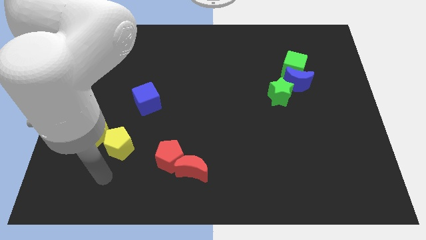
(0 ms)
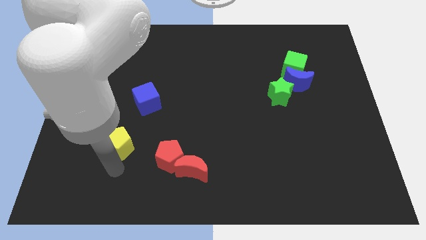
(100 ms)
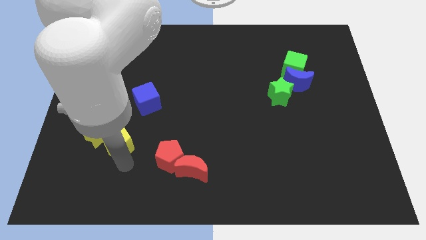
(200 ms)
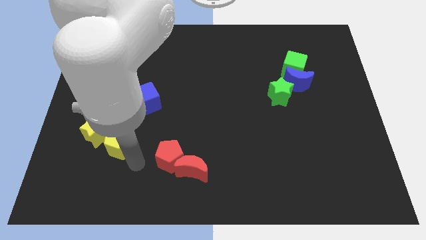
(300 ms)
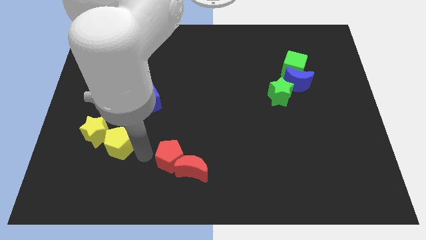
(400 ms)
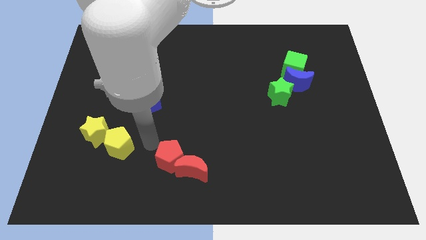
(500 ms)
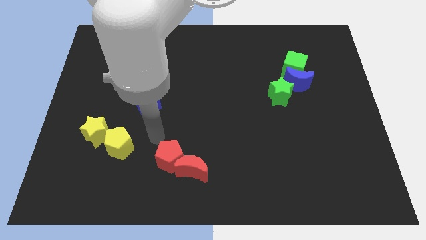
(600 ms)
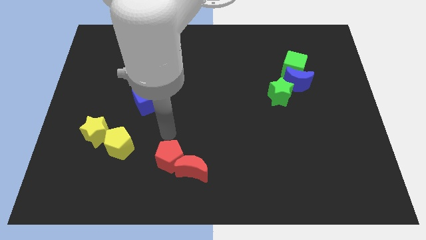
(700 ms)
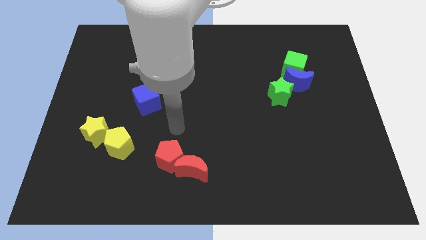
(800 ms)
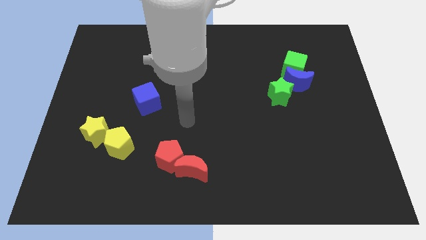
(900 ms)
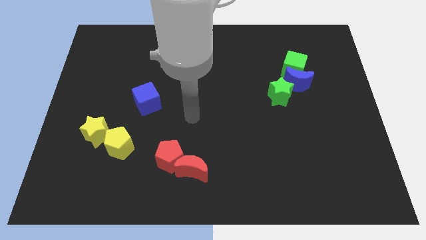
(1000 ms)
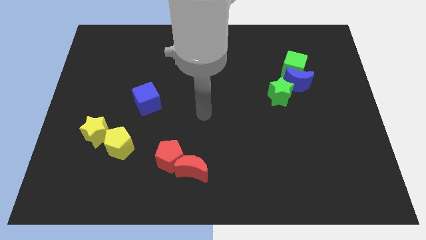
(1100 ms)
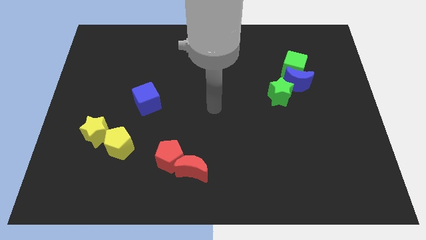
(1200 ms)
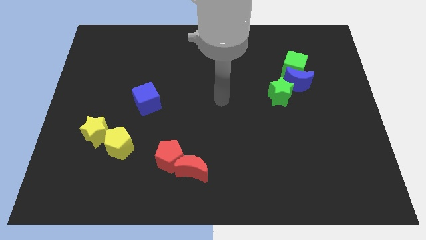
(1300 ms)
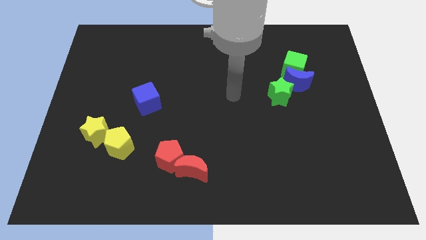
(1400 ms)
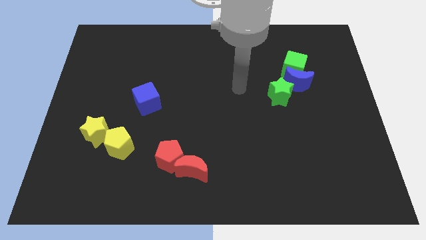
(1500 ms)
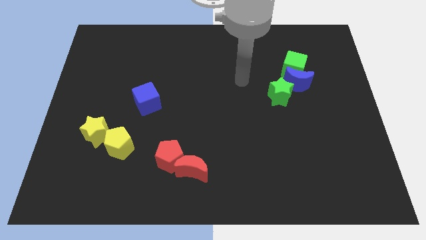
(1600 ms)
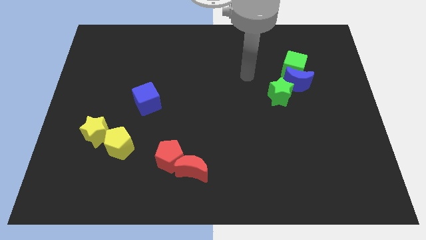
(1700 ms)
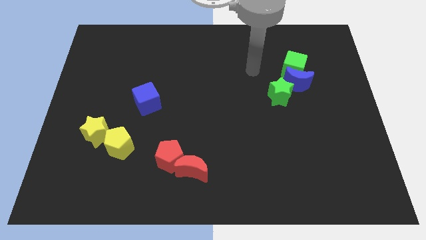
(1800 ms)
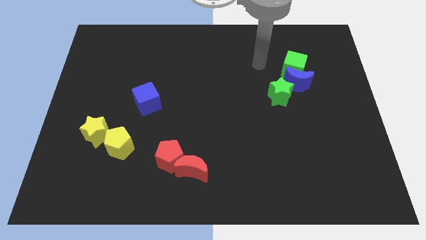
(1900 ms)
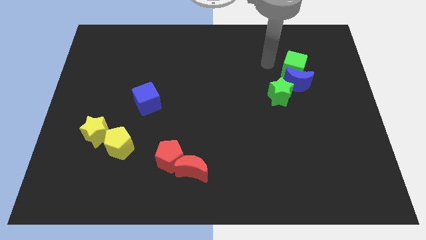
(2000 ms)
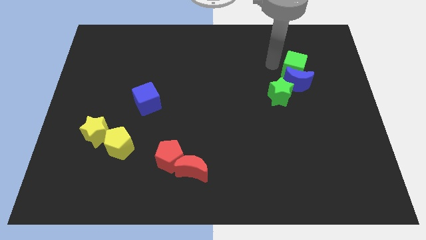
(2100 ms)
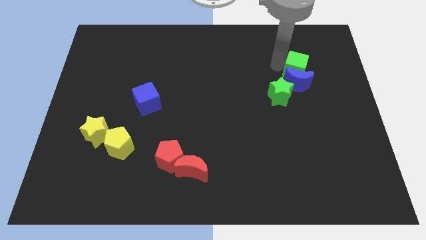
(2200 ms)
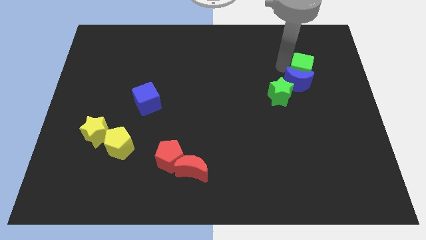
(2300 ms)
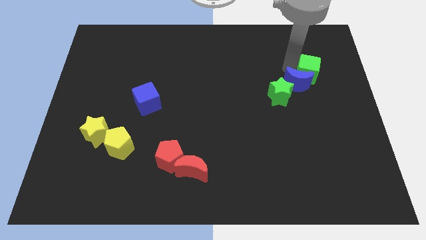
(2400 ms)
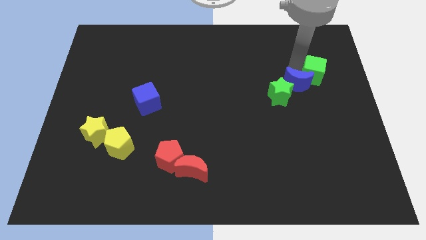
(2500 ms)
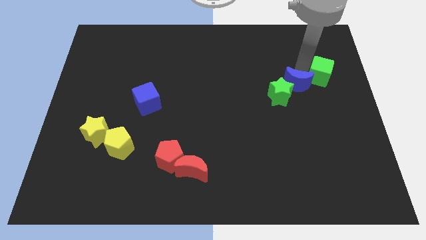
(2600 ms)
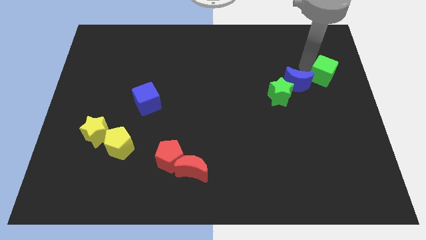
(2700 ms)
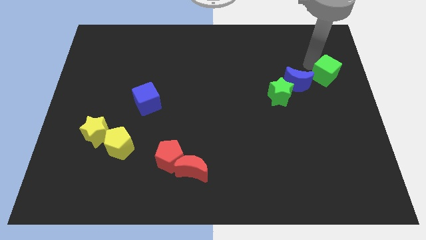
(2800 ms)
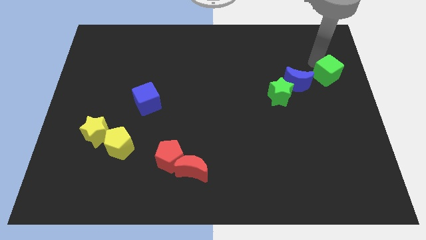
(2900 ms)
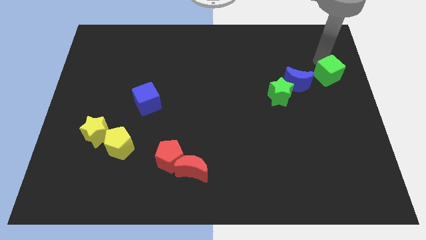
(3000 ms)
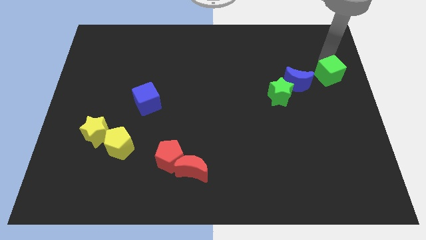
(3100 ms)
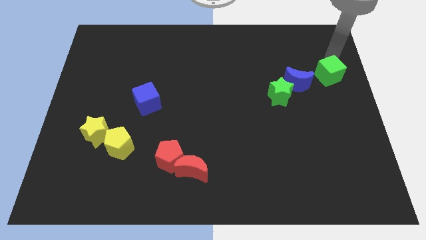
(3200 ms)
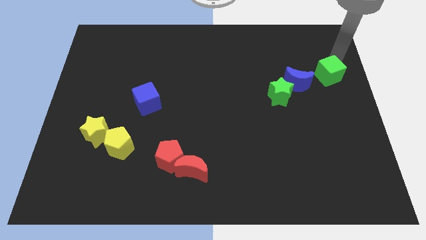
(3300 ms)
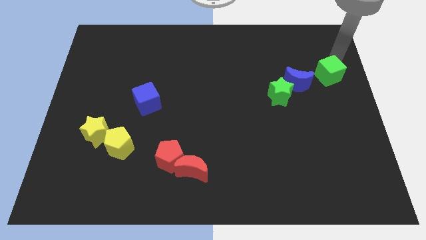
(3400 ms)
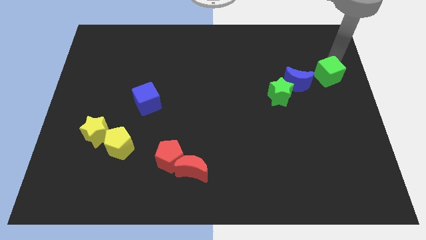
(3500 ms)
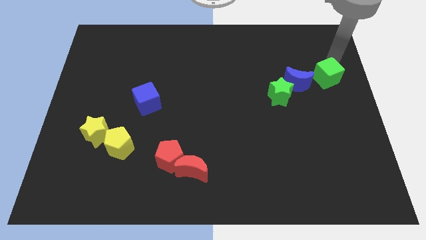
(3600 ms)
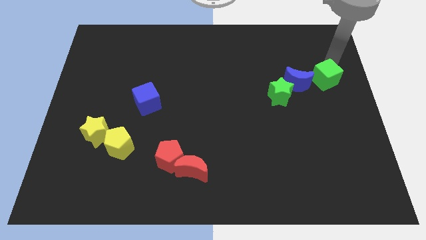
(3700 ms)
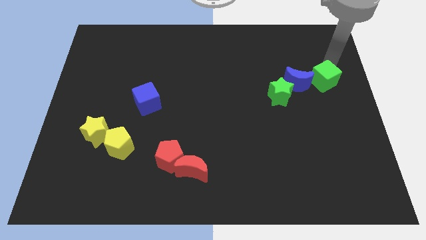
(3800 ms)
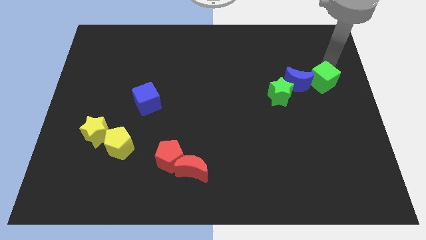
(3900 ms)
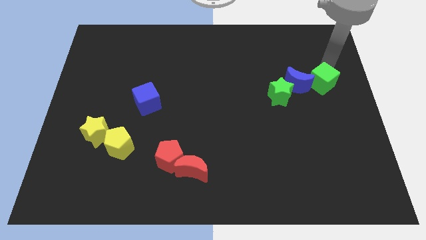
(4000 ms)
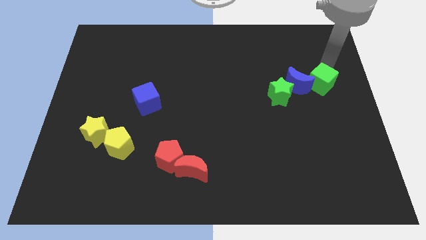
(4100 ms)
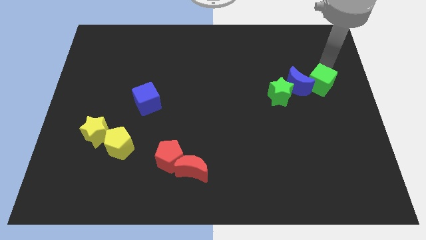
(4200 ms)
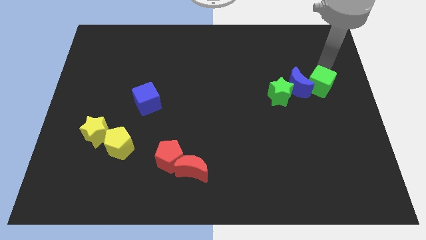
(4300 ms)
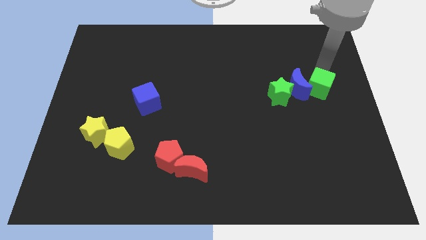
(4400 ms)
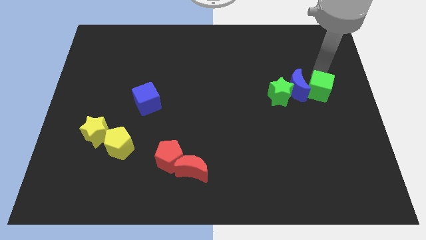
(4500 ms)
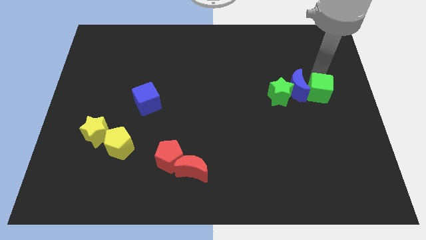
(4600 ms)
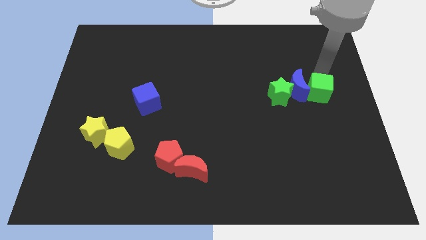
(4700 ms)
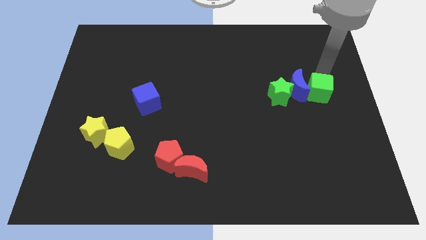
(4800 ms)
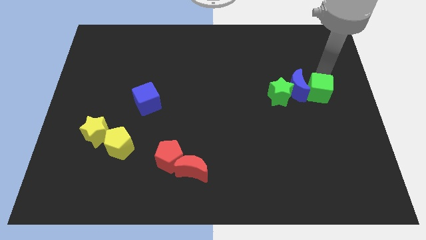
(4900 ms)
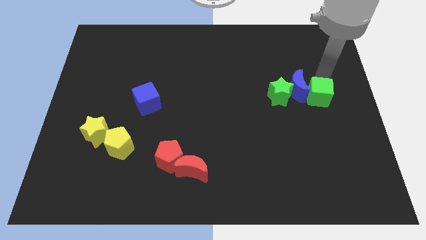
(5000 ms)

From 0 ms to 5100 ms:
slightly push the green cube downwards

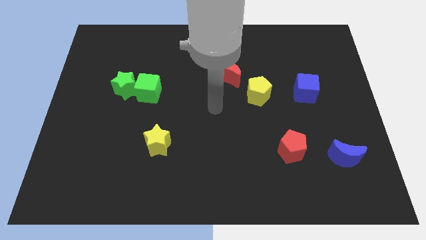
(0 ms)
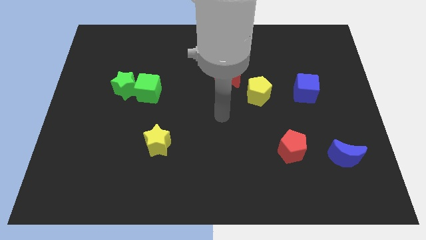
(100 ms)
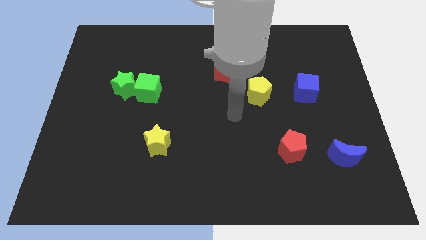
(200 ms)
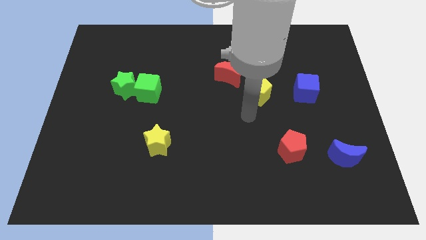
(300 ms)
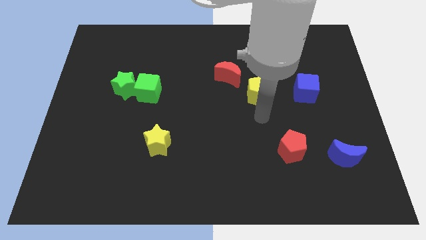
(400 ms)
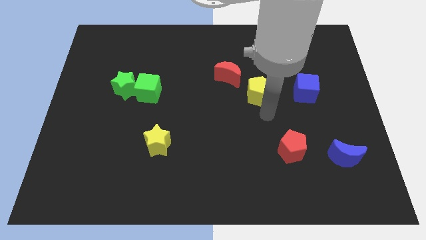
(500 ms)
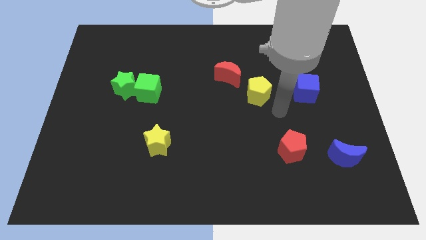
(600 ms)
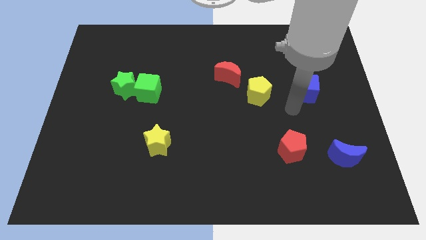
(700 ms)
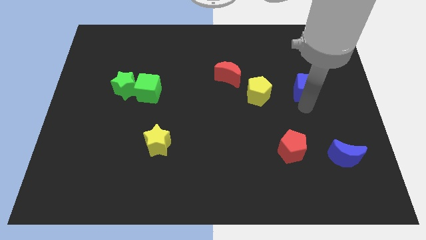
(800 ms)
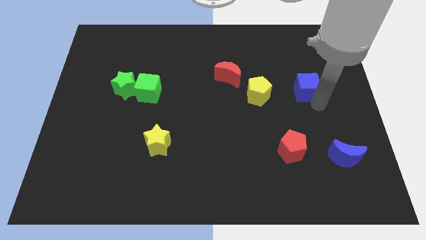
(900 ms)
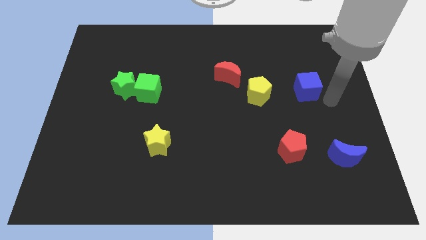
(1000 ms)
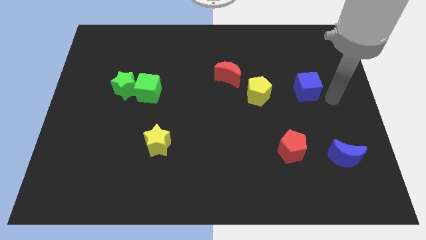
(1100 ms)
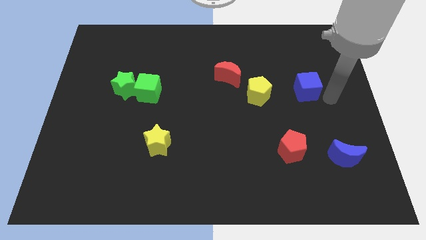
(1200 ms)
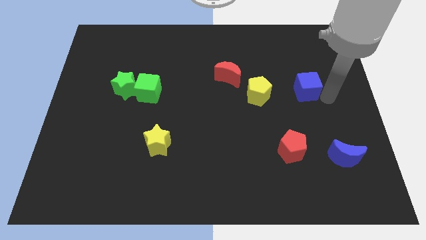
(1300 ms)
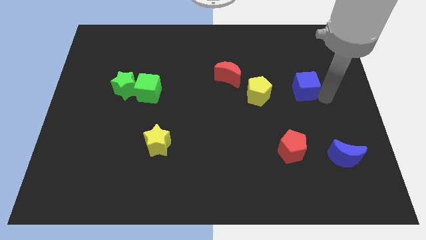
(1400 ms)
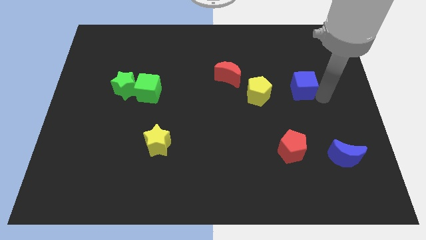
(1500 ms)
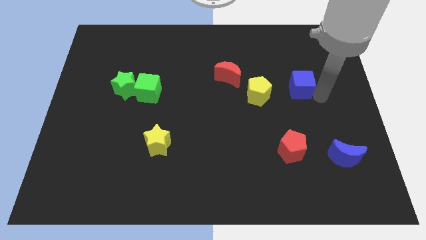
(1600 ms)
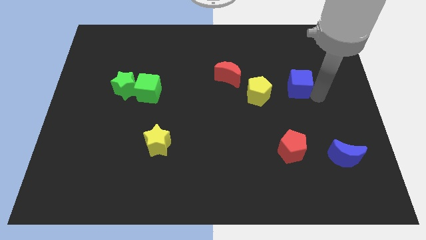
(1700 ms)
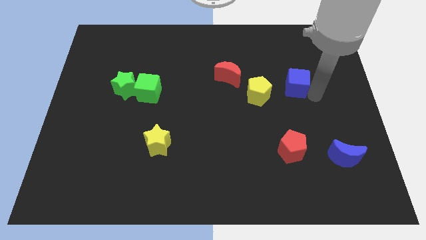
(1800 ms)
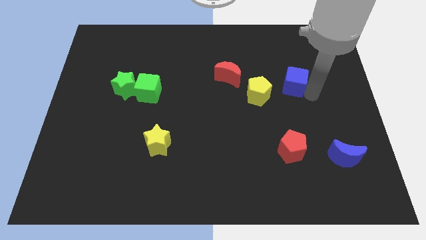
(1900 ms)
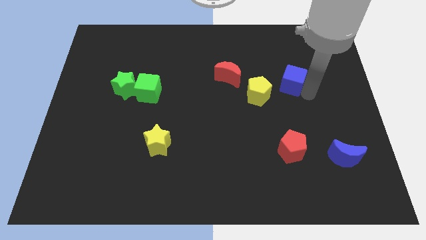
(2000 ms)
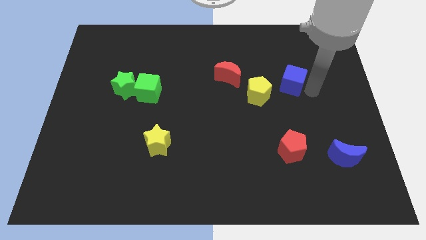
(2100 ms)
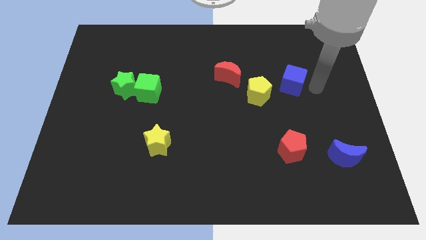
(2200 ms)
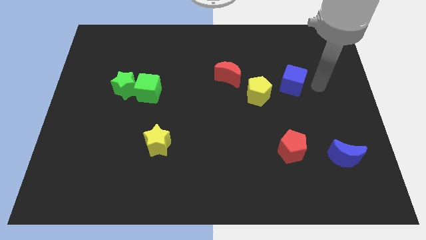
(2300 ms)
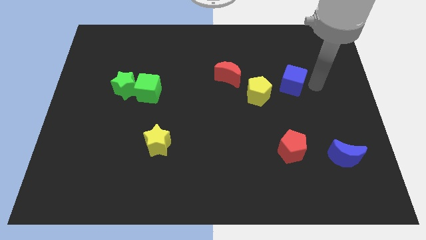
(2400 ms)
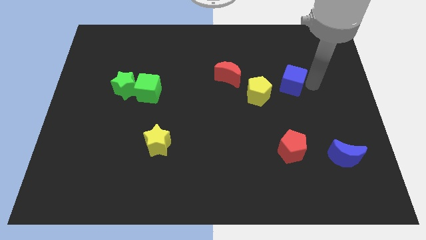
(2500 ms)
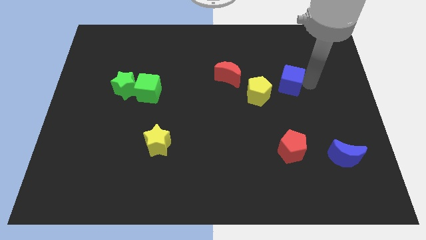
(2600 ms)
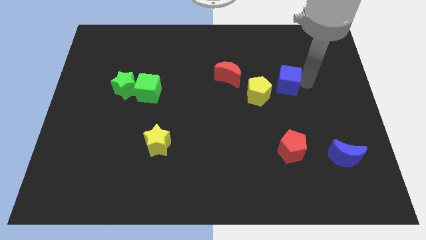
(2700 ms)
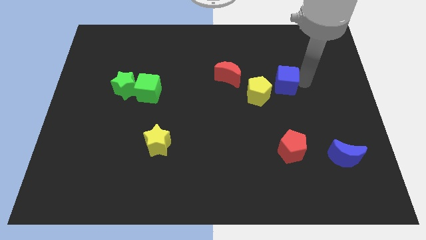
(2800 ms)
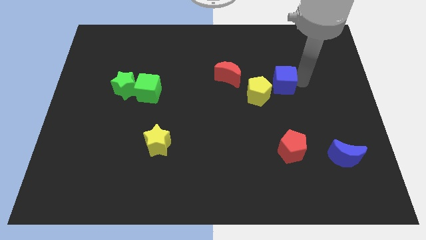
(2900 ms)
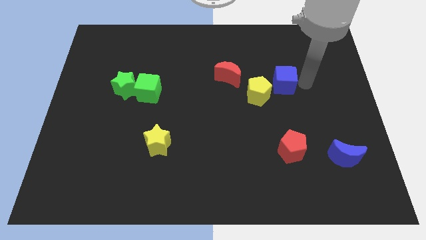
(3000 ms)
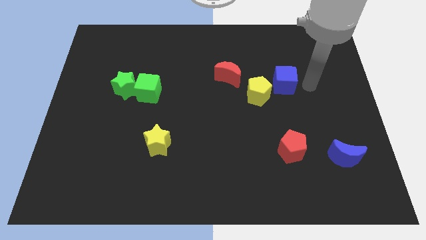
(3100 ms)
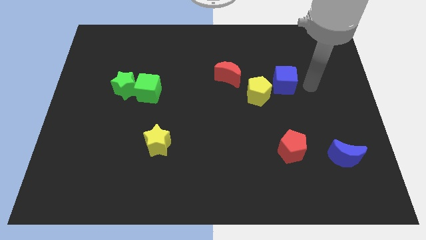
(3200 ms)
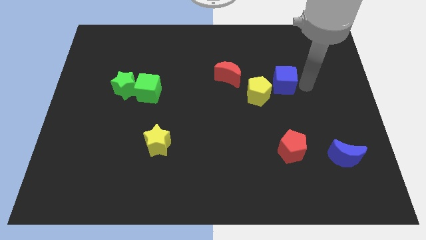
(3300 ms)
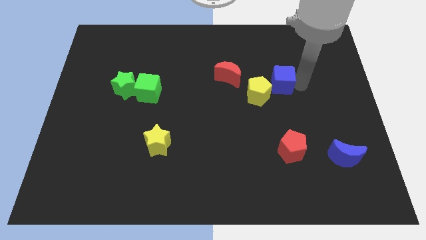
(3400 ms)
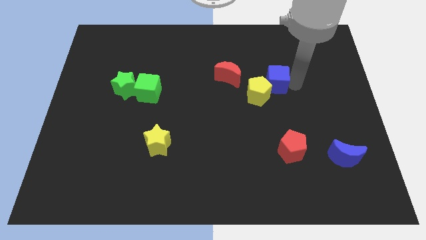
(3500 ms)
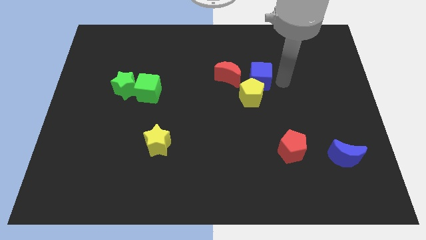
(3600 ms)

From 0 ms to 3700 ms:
move the blue cube somewhat left
